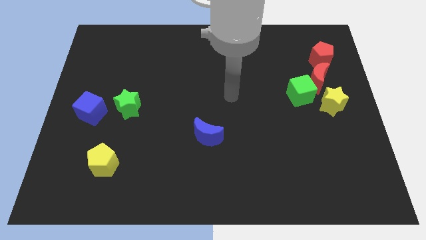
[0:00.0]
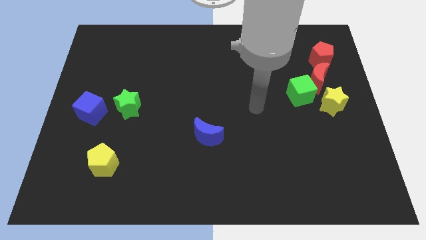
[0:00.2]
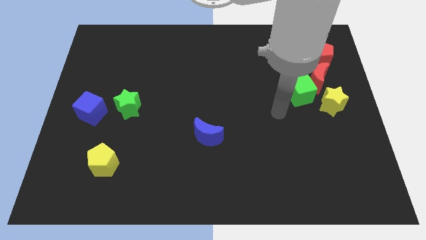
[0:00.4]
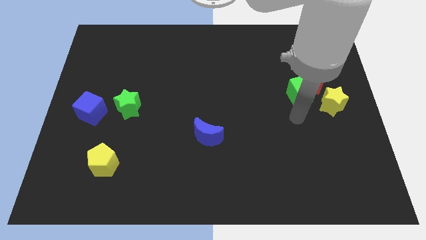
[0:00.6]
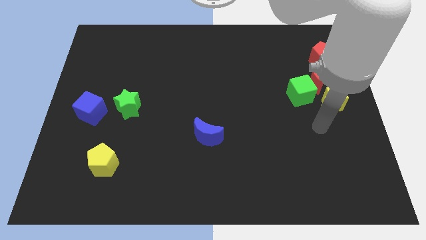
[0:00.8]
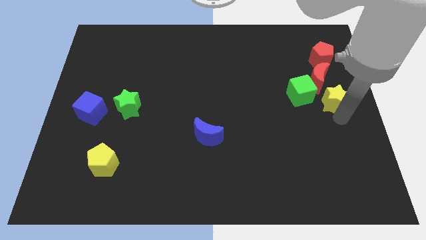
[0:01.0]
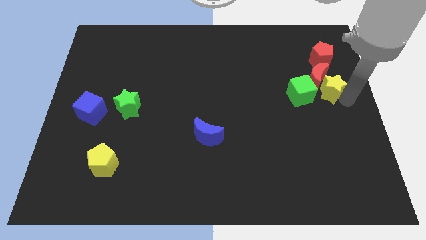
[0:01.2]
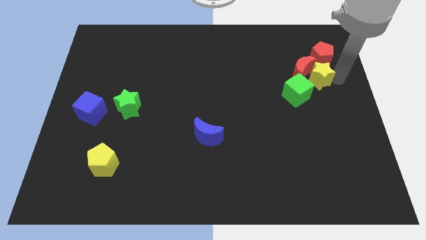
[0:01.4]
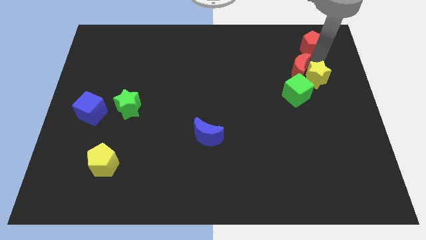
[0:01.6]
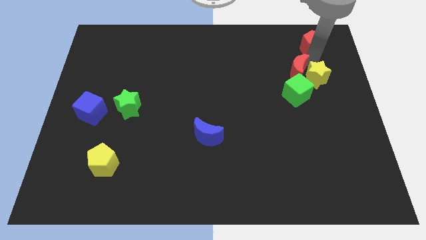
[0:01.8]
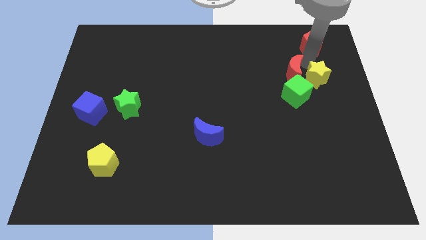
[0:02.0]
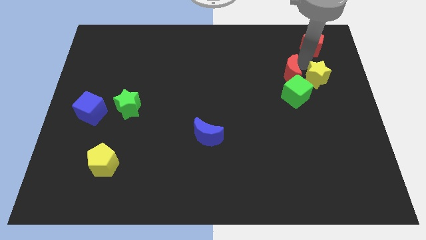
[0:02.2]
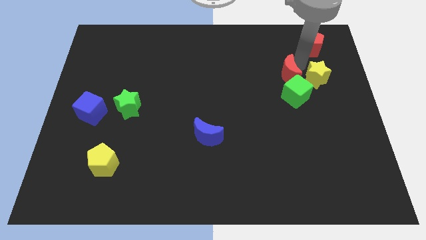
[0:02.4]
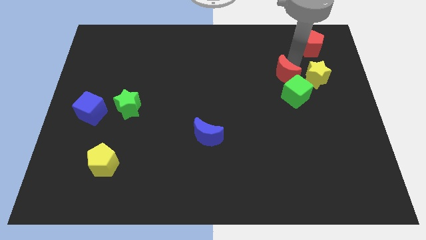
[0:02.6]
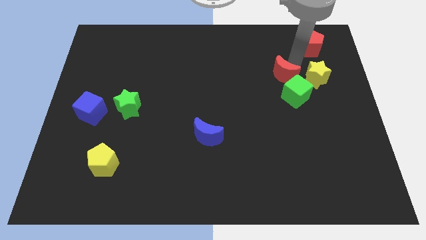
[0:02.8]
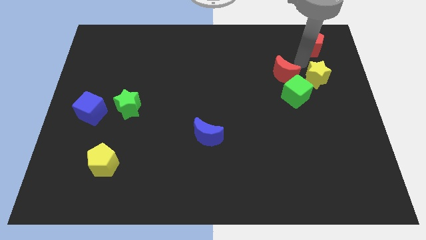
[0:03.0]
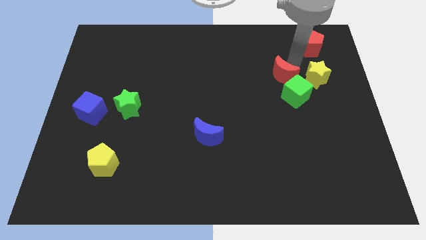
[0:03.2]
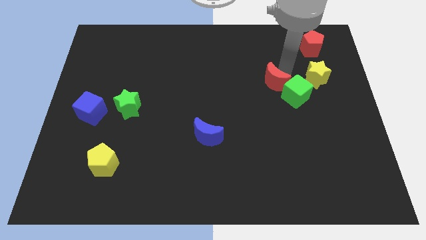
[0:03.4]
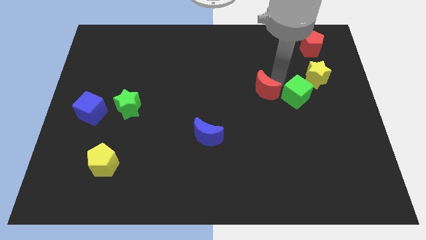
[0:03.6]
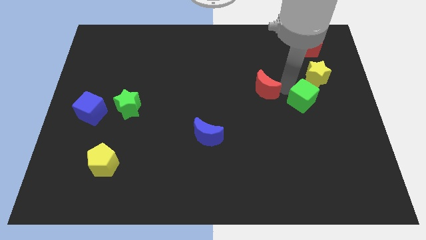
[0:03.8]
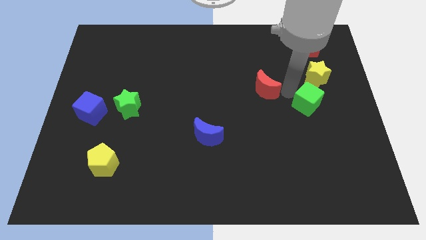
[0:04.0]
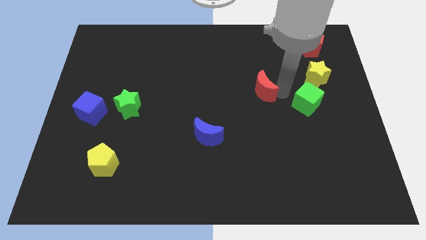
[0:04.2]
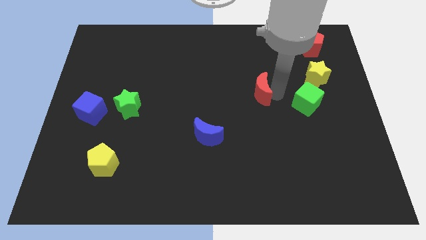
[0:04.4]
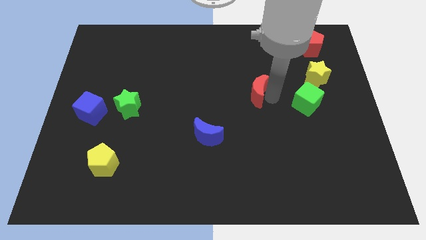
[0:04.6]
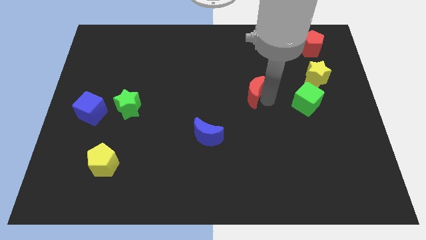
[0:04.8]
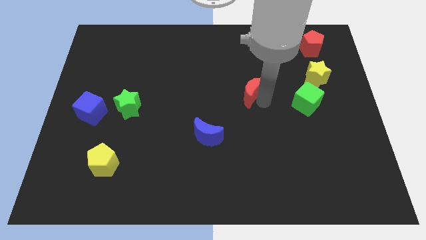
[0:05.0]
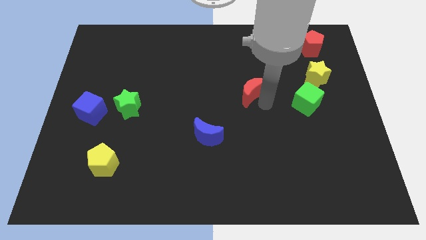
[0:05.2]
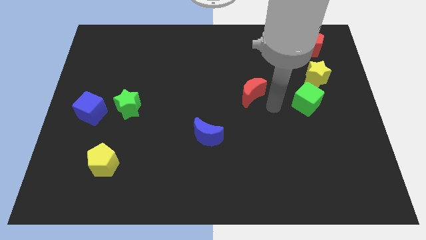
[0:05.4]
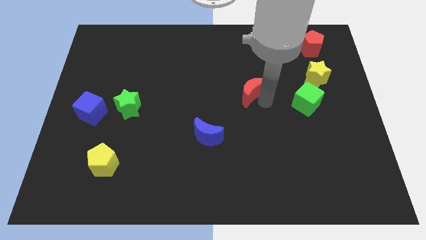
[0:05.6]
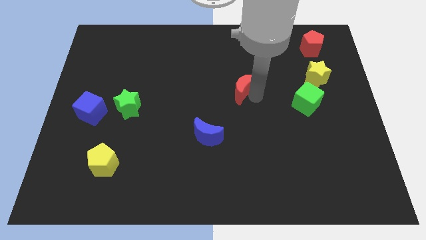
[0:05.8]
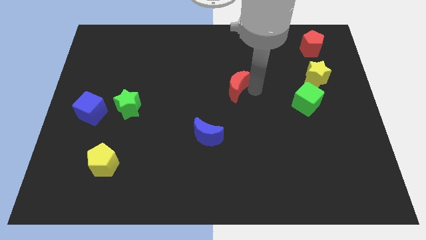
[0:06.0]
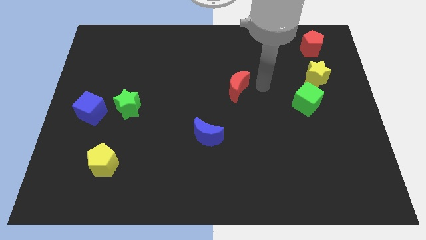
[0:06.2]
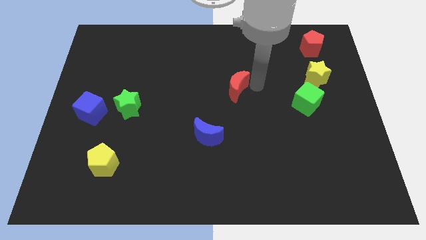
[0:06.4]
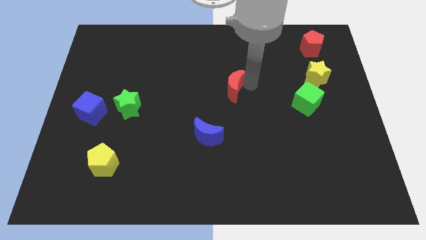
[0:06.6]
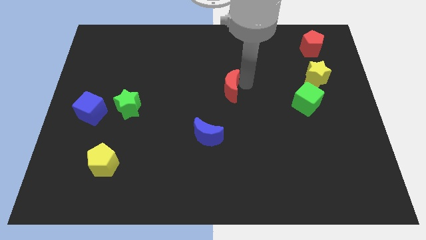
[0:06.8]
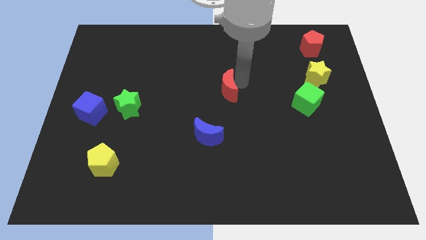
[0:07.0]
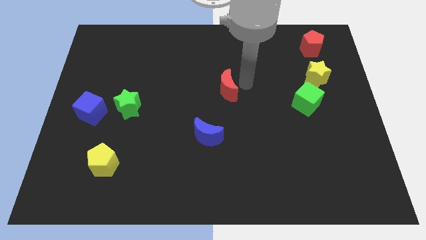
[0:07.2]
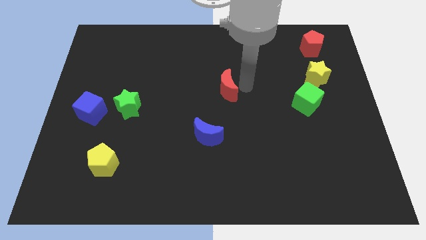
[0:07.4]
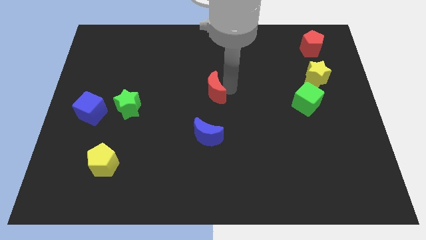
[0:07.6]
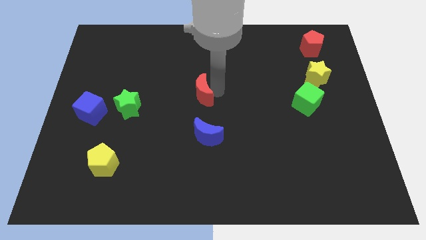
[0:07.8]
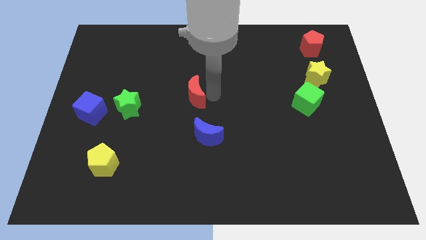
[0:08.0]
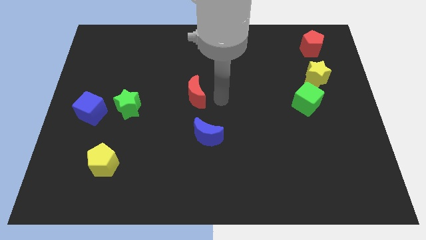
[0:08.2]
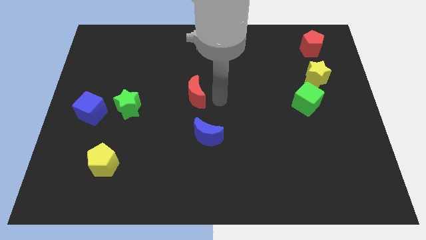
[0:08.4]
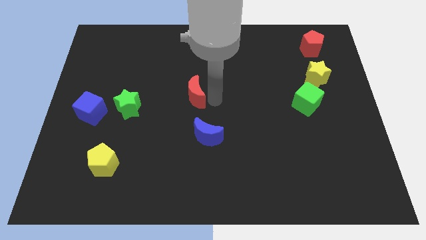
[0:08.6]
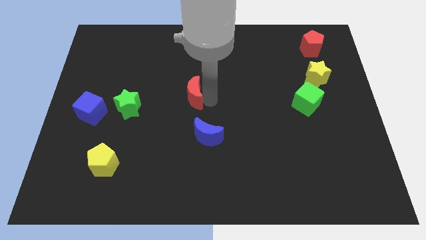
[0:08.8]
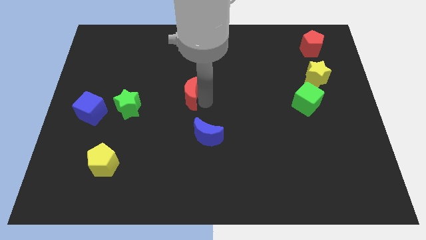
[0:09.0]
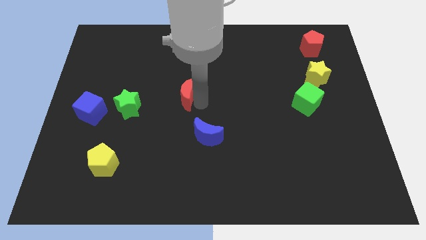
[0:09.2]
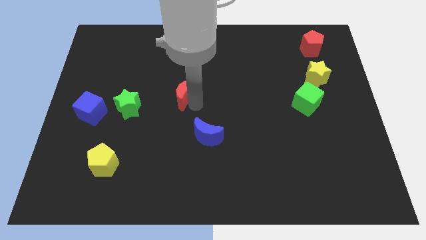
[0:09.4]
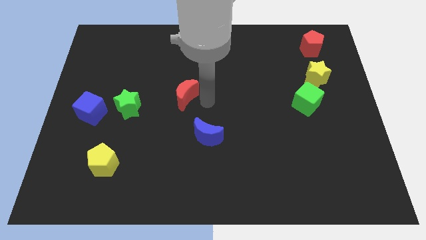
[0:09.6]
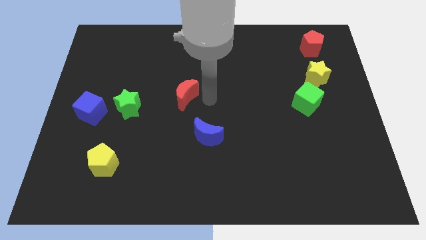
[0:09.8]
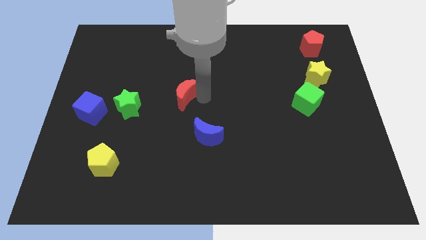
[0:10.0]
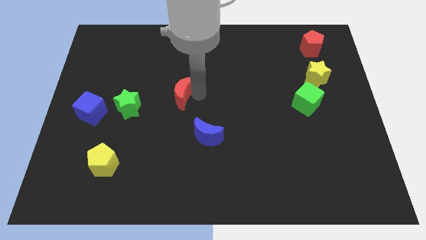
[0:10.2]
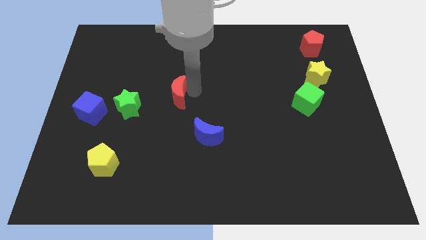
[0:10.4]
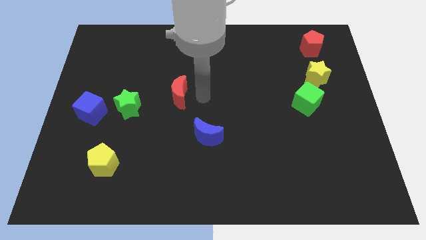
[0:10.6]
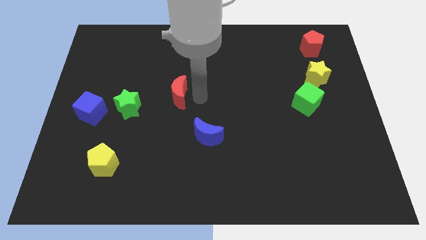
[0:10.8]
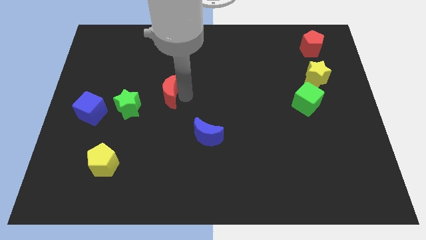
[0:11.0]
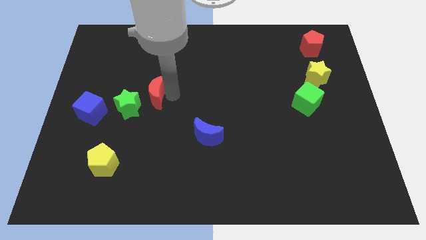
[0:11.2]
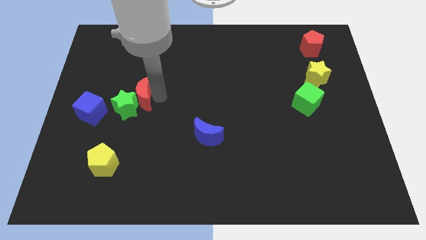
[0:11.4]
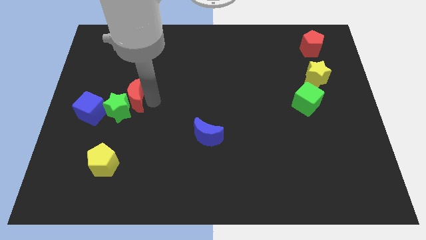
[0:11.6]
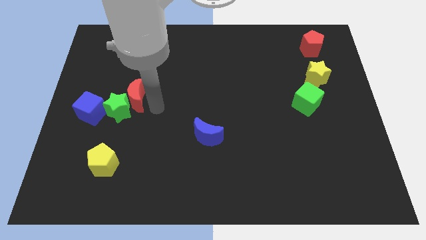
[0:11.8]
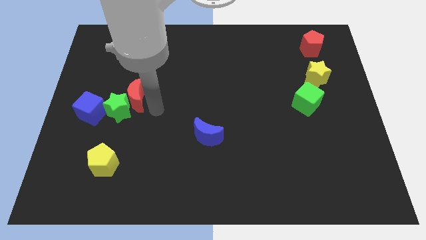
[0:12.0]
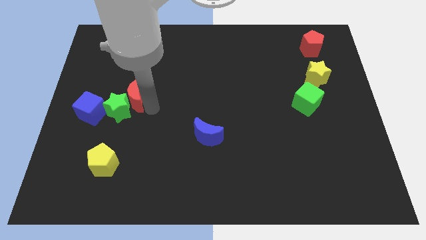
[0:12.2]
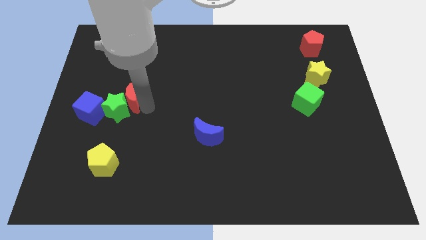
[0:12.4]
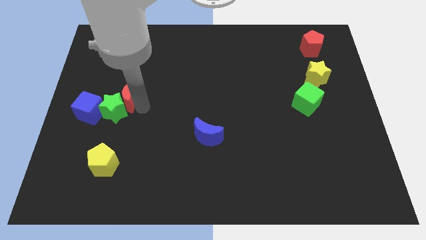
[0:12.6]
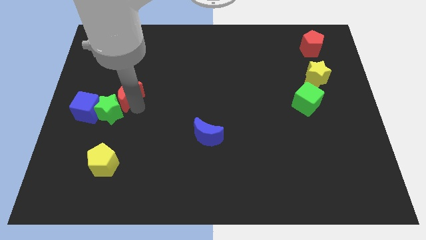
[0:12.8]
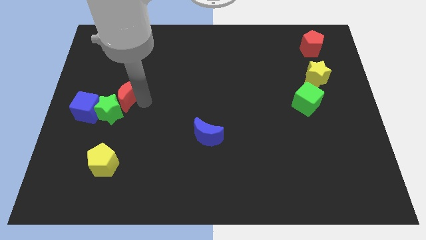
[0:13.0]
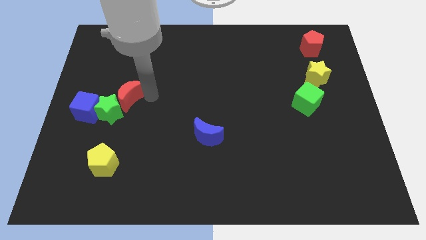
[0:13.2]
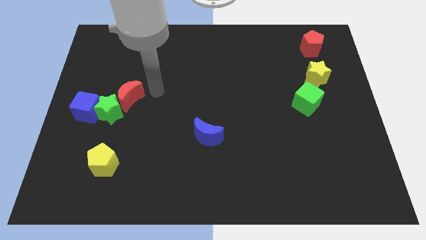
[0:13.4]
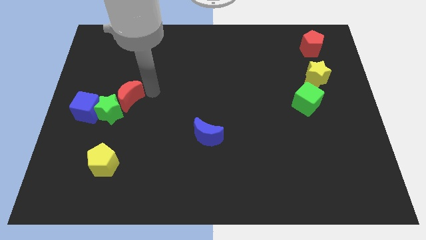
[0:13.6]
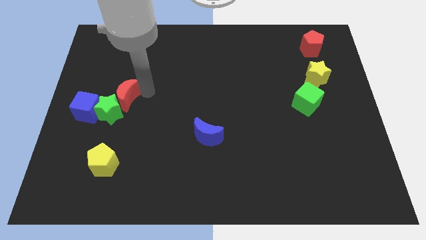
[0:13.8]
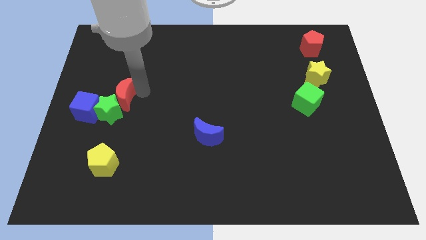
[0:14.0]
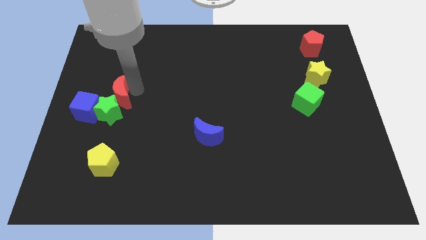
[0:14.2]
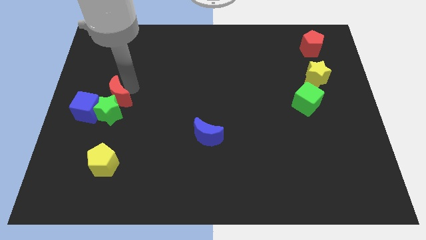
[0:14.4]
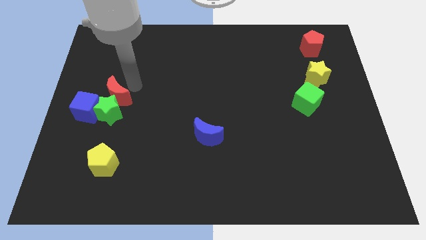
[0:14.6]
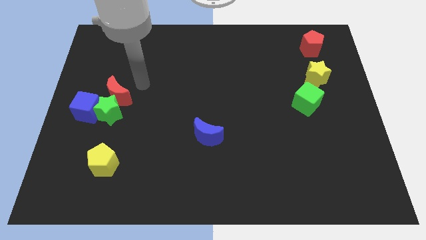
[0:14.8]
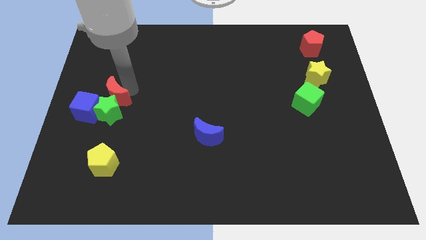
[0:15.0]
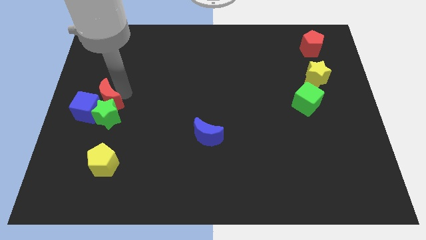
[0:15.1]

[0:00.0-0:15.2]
move the red moon towards the blue cube

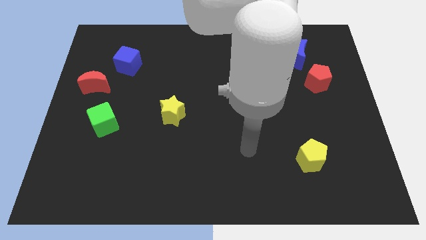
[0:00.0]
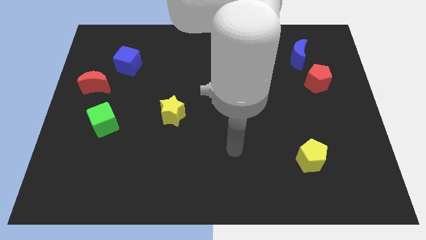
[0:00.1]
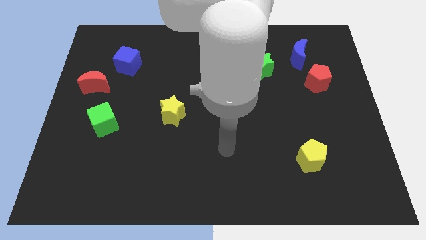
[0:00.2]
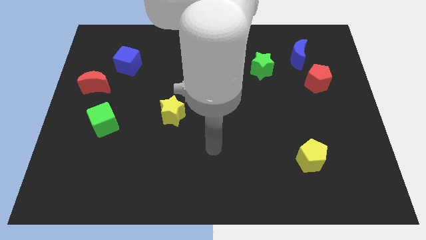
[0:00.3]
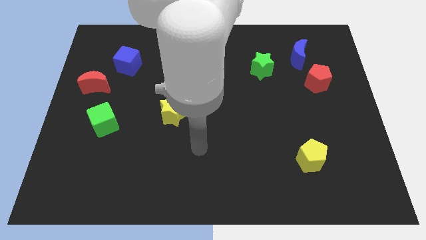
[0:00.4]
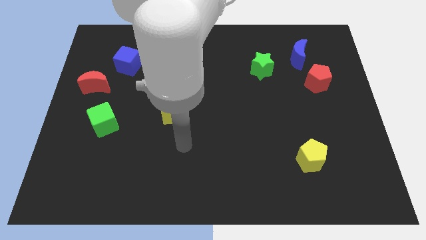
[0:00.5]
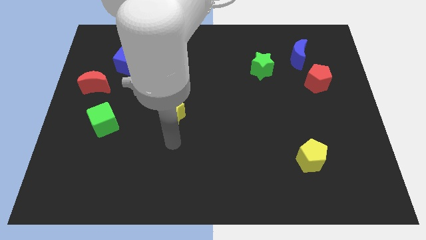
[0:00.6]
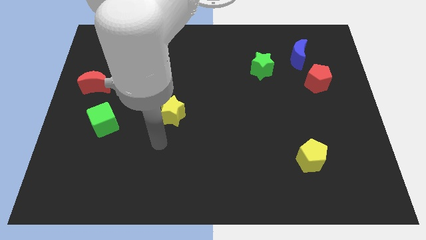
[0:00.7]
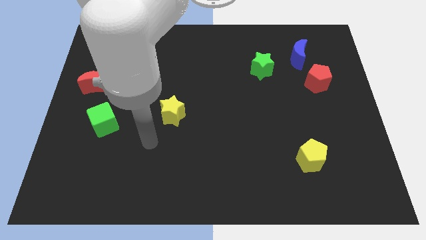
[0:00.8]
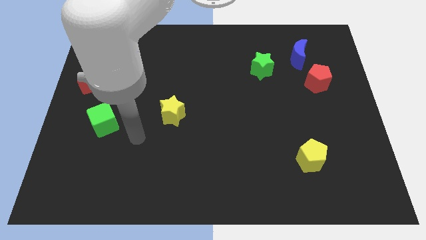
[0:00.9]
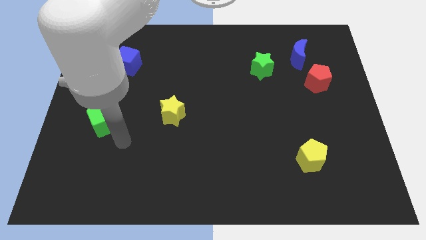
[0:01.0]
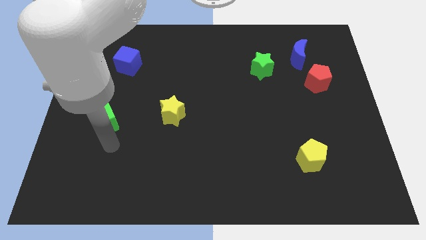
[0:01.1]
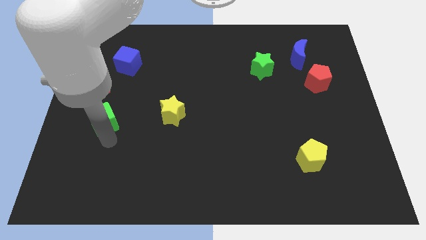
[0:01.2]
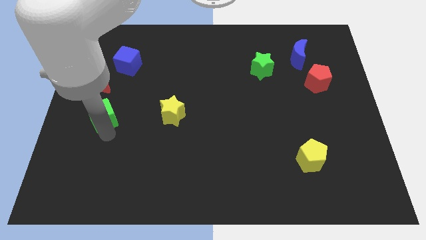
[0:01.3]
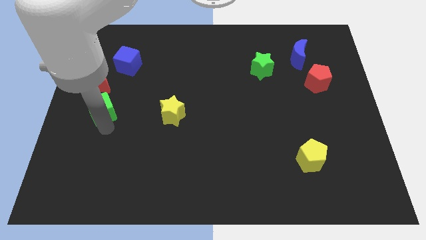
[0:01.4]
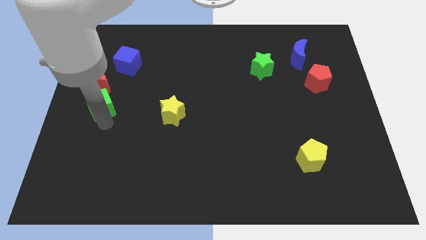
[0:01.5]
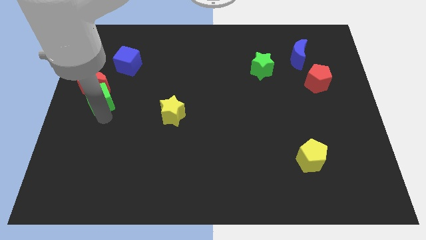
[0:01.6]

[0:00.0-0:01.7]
put the green cube towards the red moon
